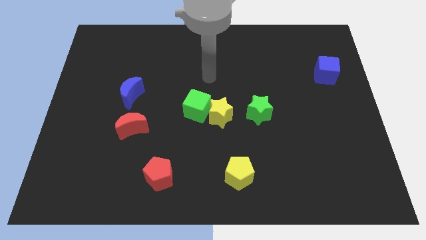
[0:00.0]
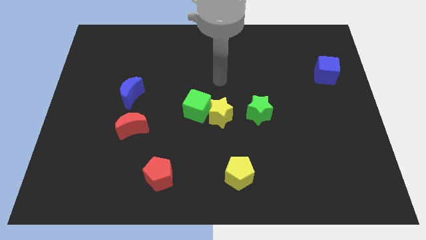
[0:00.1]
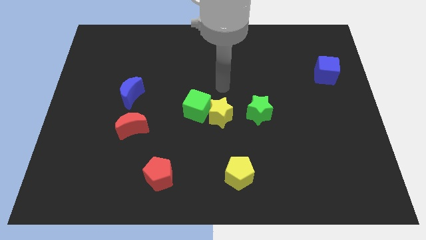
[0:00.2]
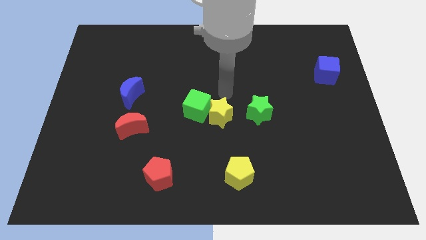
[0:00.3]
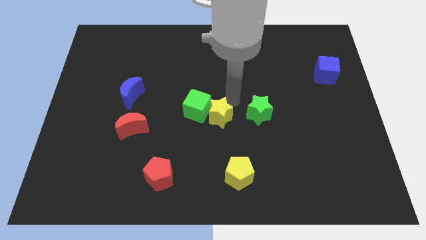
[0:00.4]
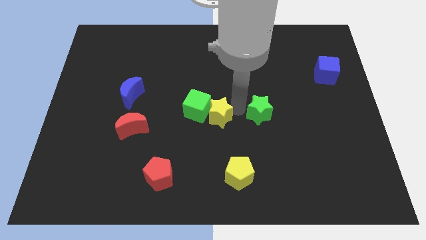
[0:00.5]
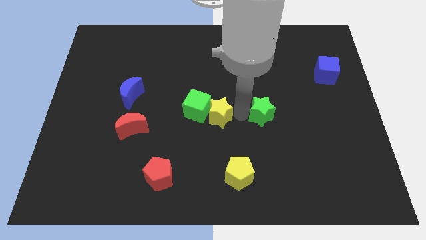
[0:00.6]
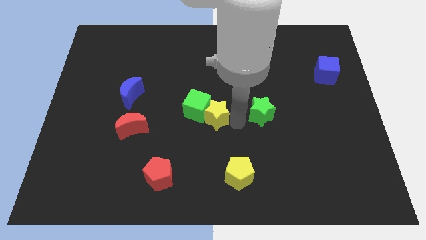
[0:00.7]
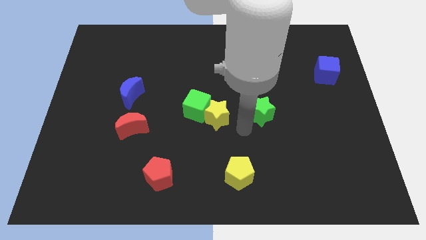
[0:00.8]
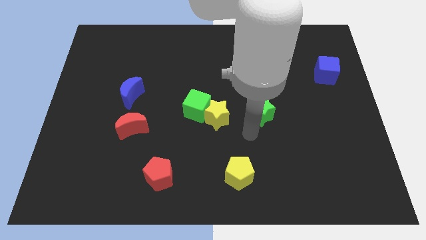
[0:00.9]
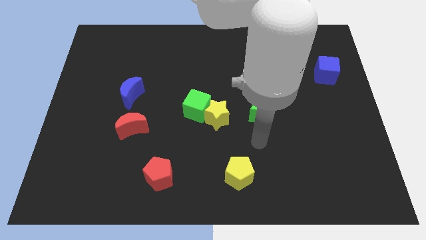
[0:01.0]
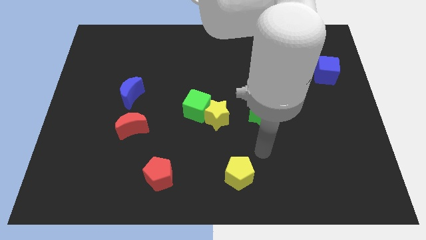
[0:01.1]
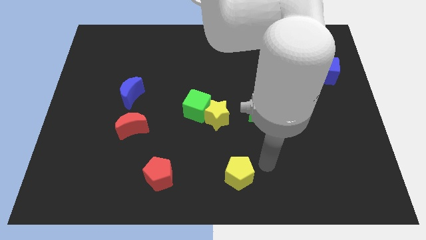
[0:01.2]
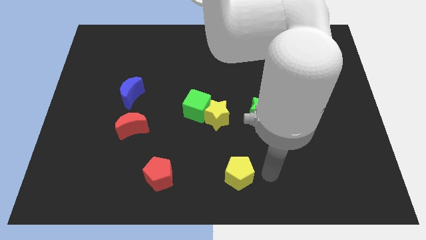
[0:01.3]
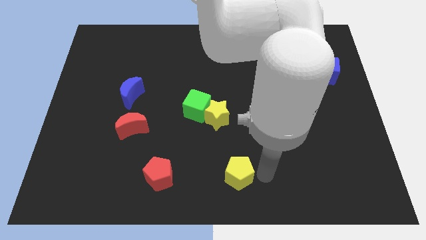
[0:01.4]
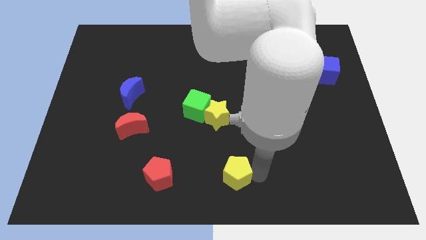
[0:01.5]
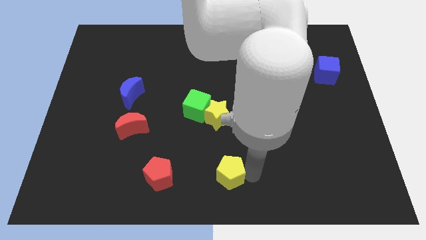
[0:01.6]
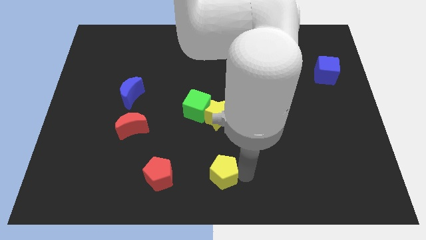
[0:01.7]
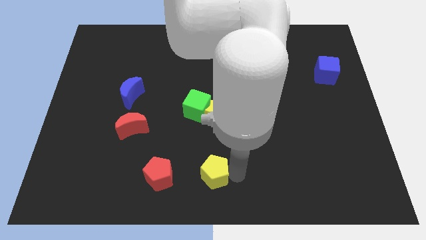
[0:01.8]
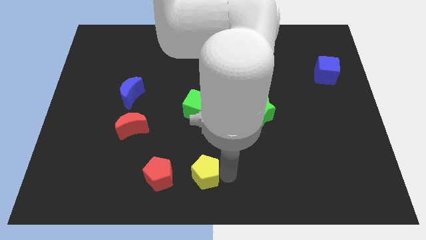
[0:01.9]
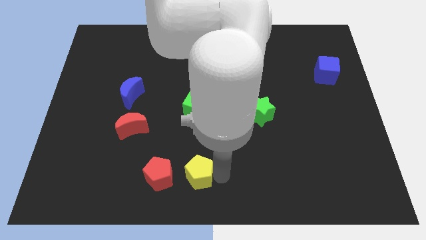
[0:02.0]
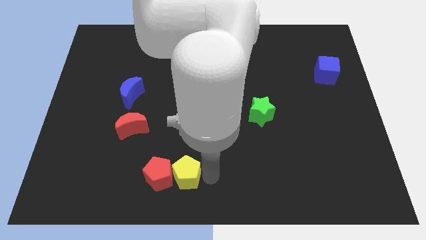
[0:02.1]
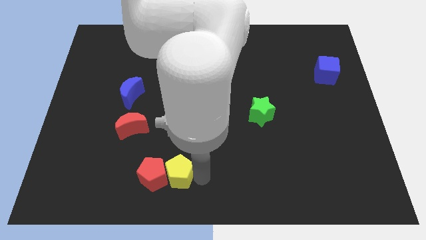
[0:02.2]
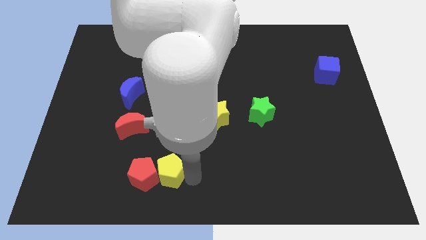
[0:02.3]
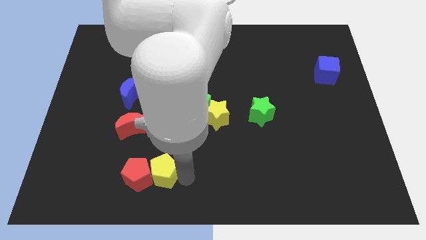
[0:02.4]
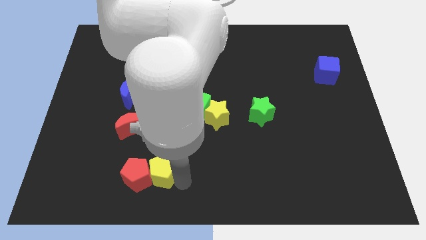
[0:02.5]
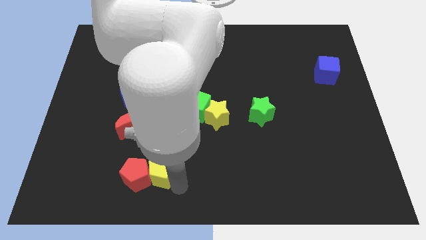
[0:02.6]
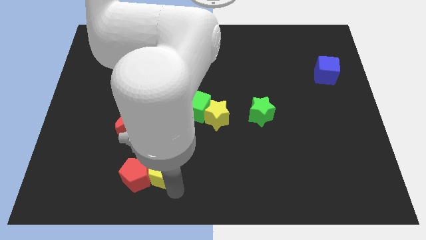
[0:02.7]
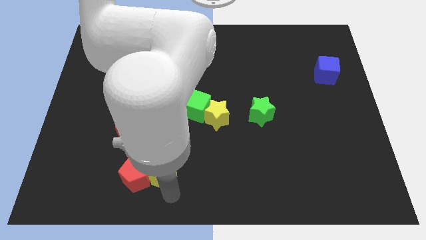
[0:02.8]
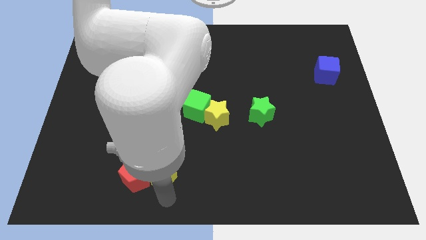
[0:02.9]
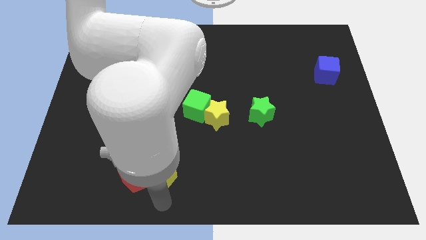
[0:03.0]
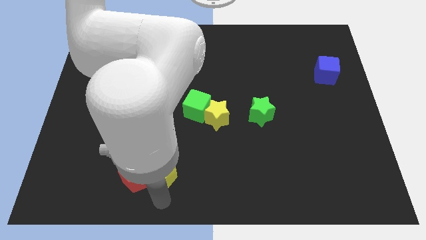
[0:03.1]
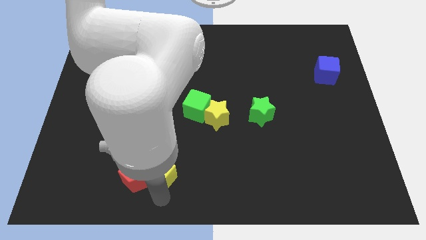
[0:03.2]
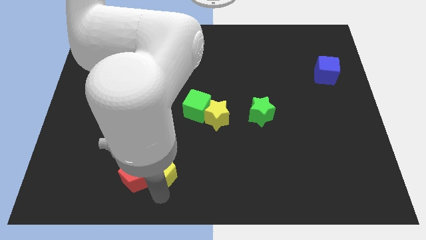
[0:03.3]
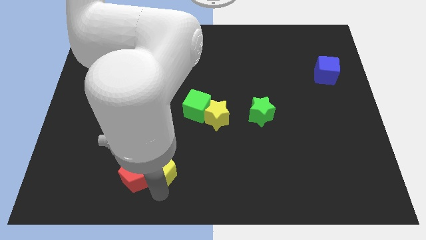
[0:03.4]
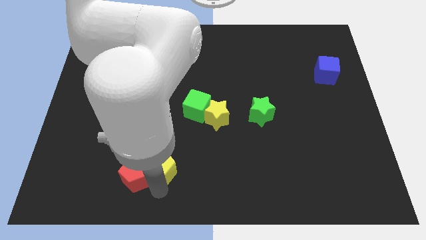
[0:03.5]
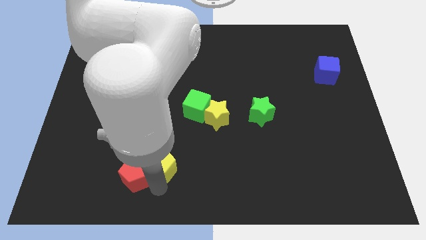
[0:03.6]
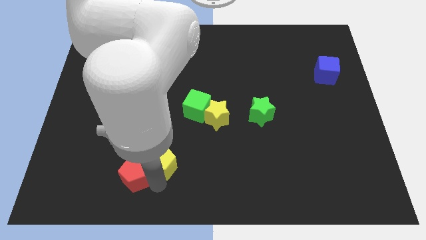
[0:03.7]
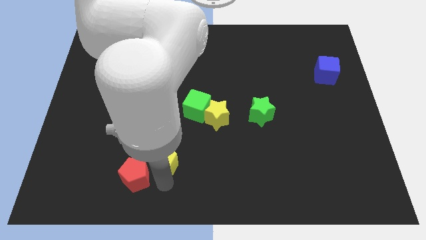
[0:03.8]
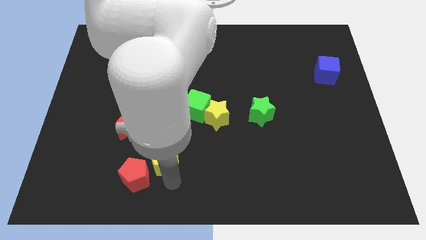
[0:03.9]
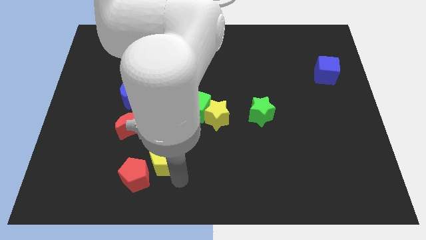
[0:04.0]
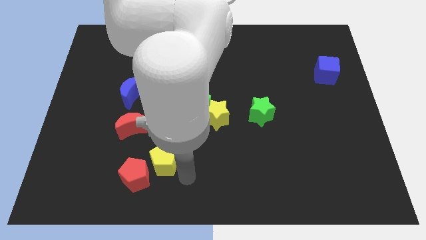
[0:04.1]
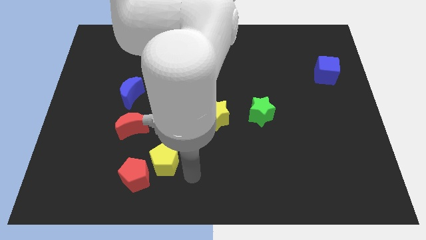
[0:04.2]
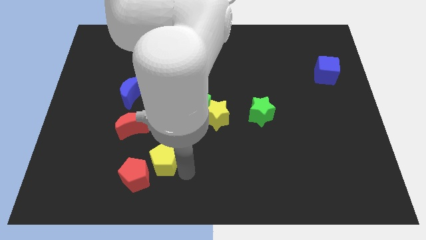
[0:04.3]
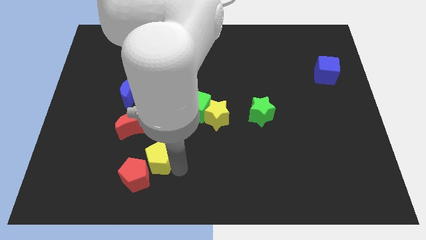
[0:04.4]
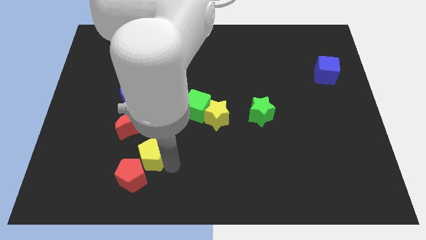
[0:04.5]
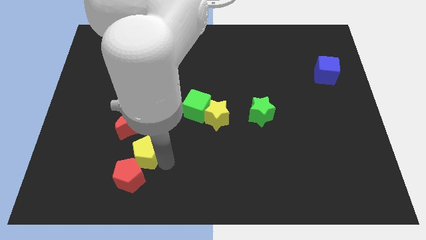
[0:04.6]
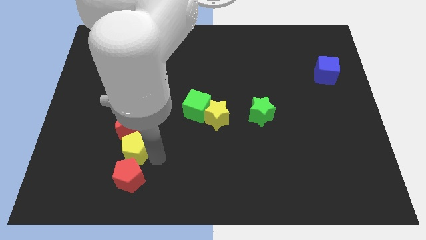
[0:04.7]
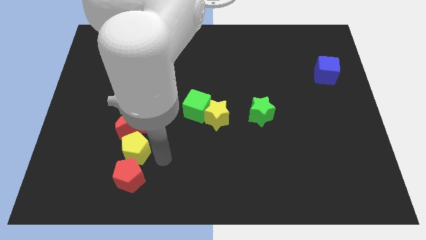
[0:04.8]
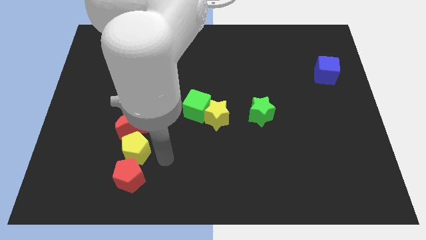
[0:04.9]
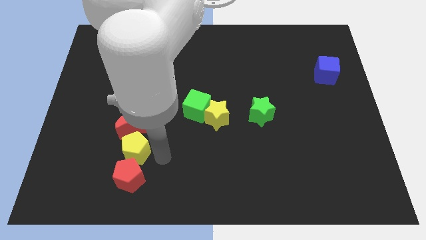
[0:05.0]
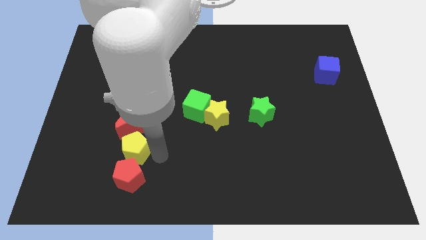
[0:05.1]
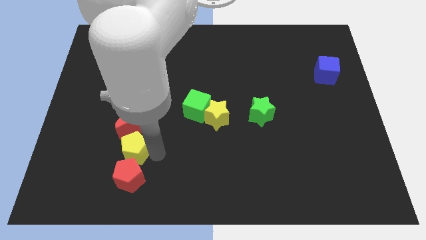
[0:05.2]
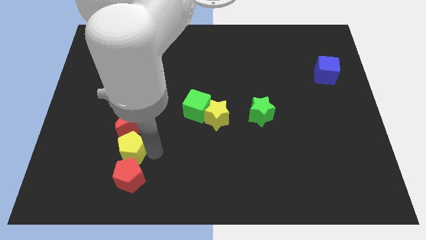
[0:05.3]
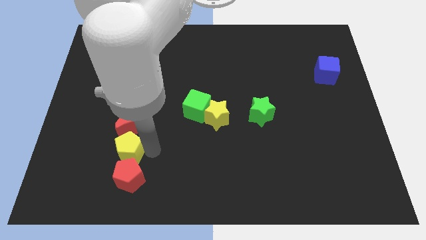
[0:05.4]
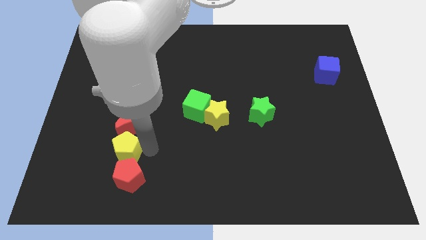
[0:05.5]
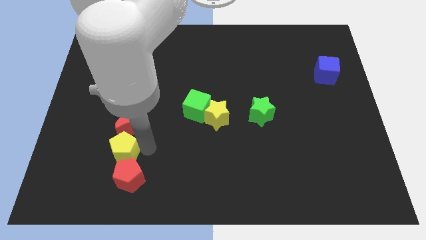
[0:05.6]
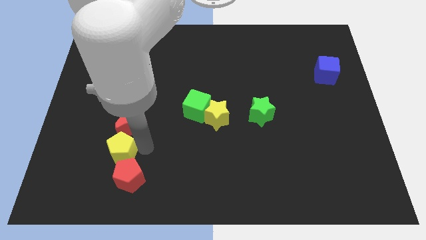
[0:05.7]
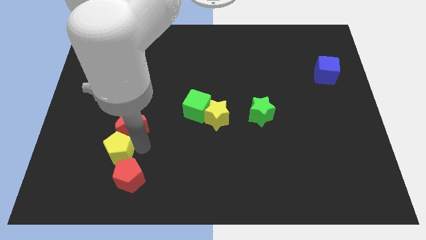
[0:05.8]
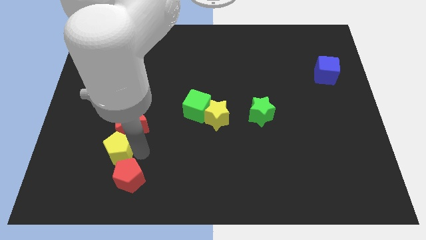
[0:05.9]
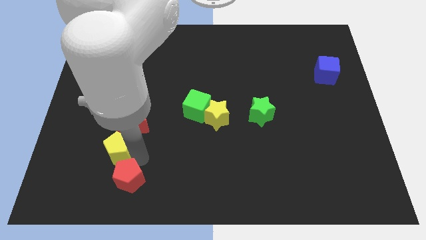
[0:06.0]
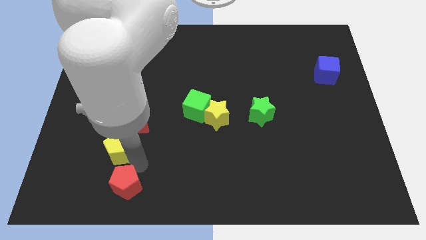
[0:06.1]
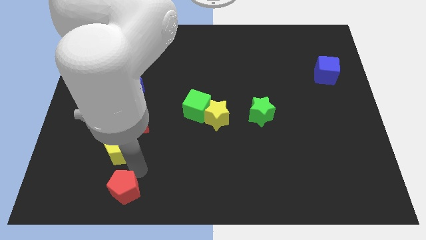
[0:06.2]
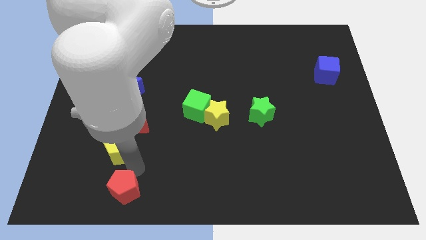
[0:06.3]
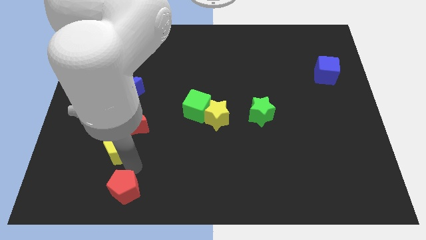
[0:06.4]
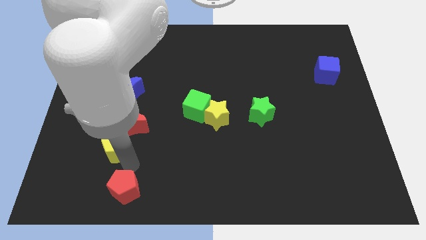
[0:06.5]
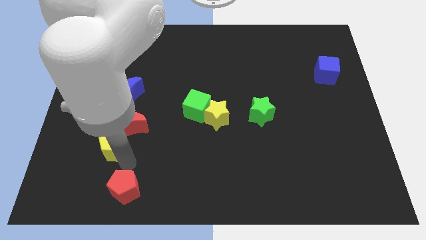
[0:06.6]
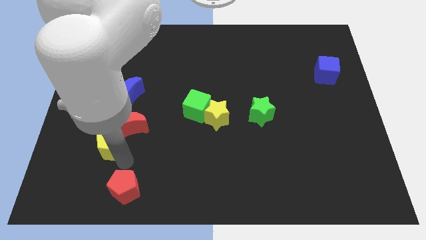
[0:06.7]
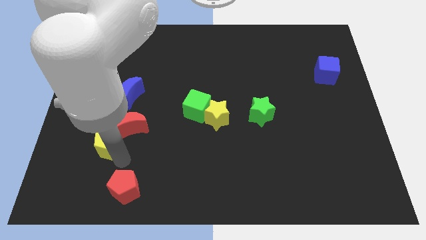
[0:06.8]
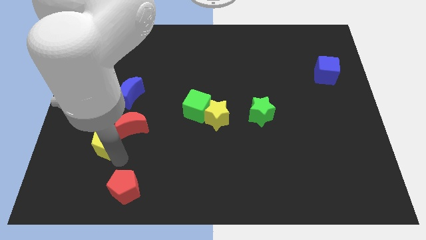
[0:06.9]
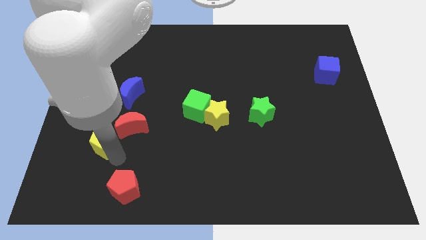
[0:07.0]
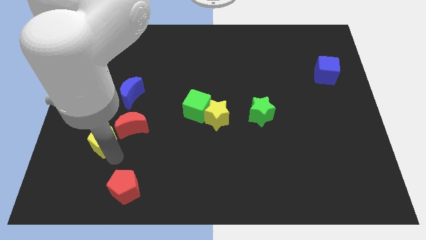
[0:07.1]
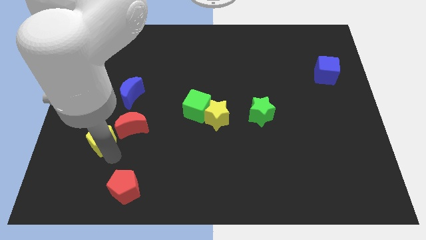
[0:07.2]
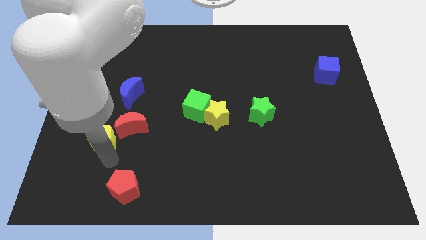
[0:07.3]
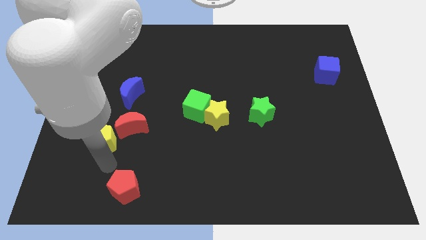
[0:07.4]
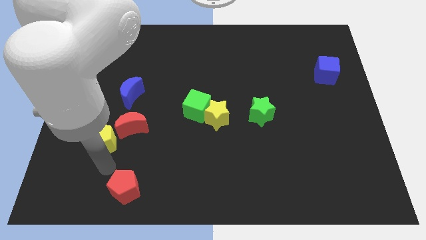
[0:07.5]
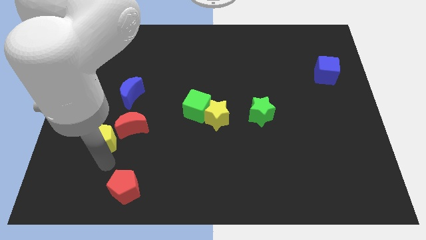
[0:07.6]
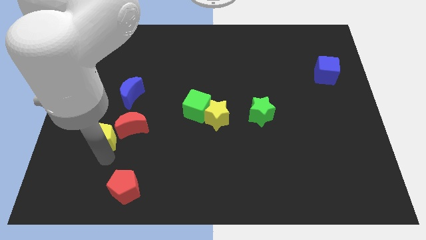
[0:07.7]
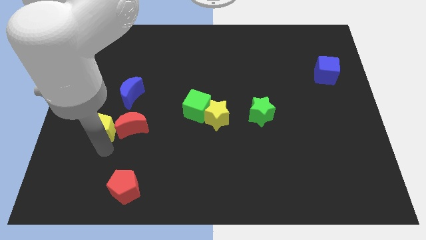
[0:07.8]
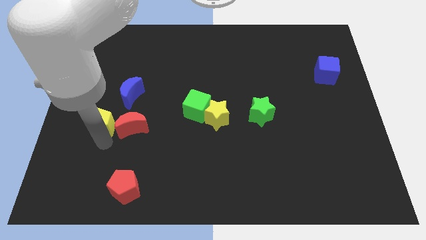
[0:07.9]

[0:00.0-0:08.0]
slide the yellow pentagon to the bottom left of the blue moon
